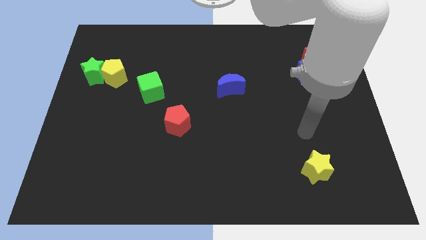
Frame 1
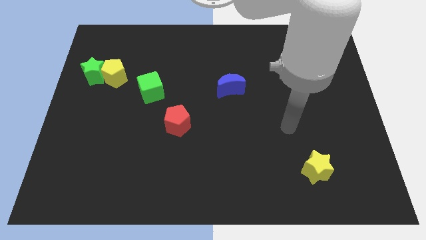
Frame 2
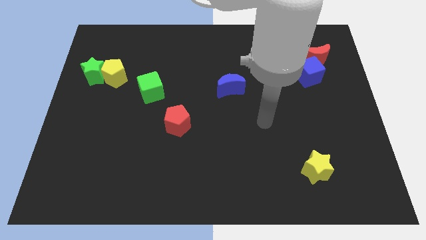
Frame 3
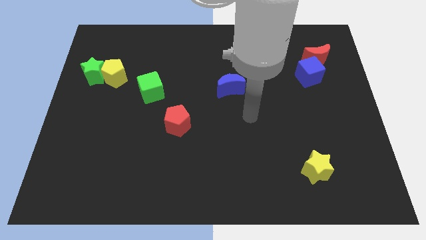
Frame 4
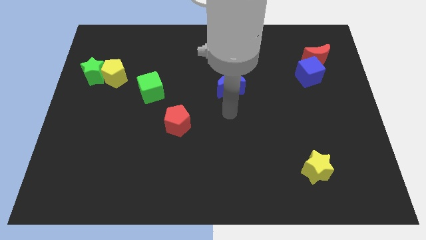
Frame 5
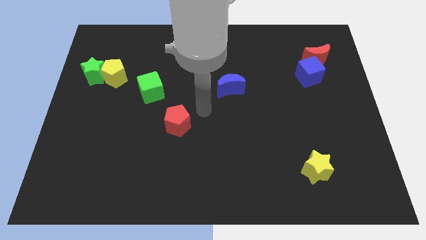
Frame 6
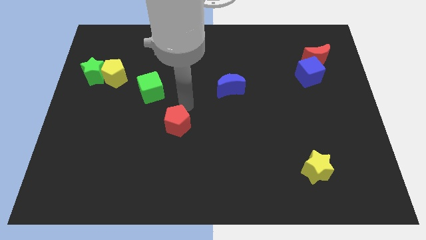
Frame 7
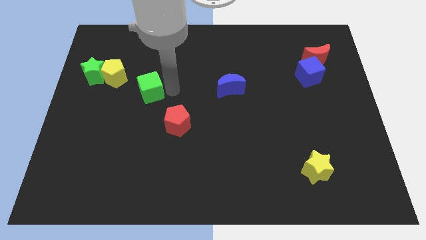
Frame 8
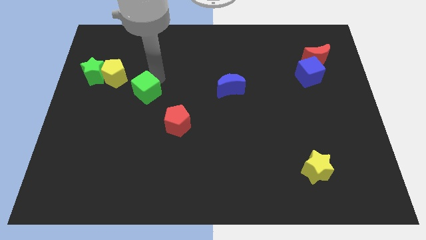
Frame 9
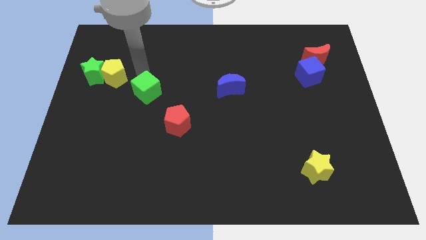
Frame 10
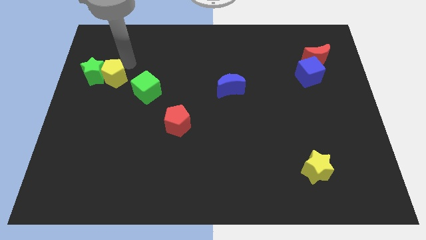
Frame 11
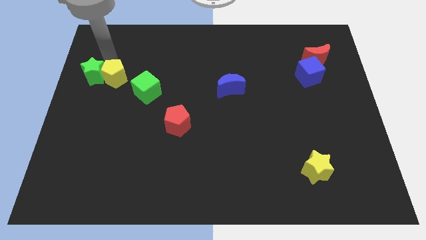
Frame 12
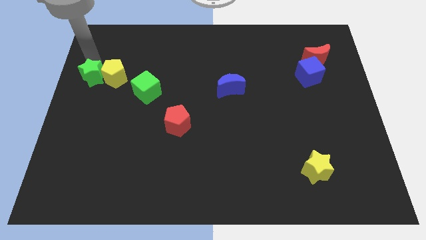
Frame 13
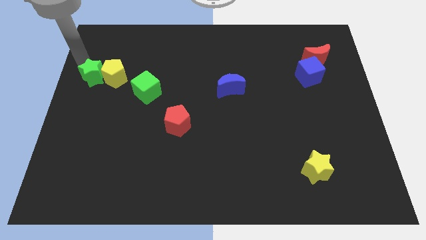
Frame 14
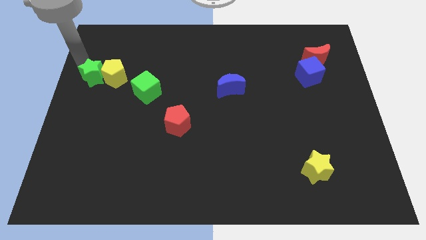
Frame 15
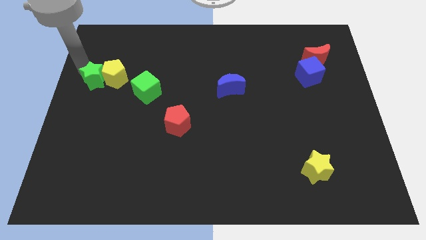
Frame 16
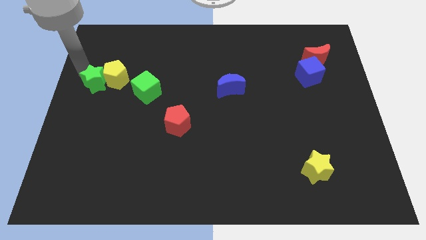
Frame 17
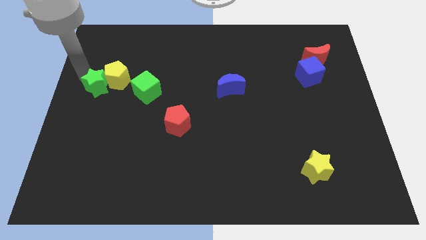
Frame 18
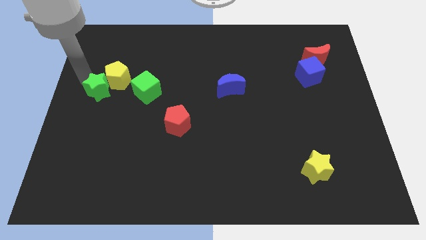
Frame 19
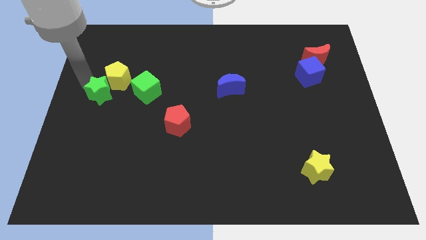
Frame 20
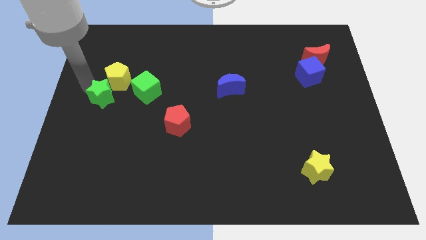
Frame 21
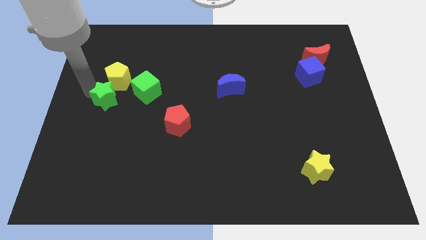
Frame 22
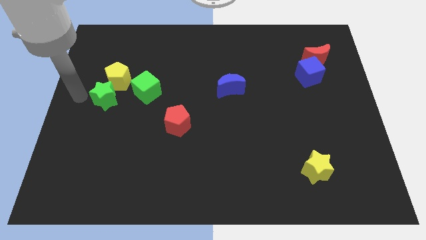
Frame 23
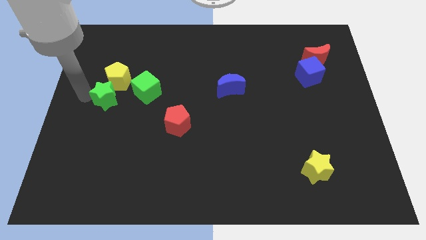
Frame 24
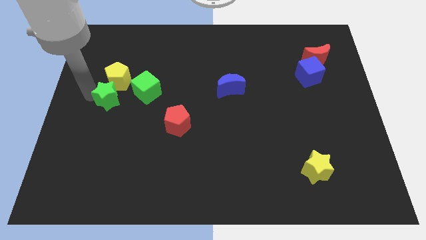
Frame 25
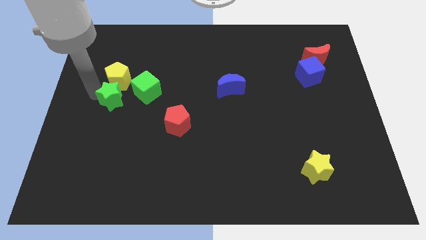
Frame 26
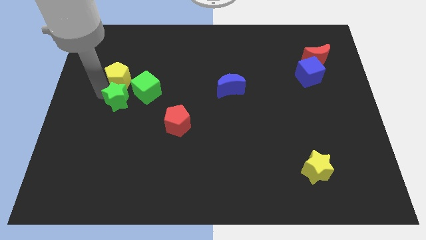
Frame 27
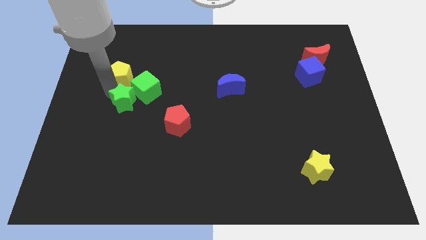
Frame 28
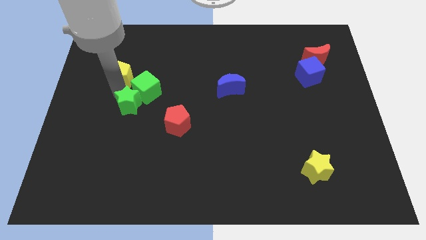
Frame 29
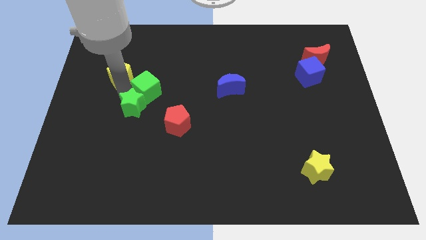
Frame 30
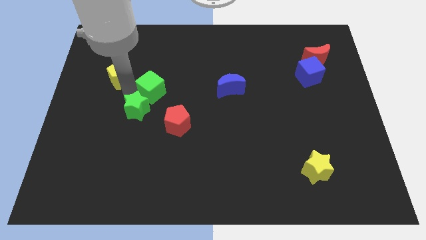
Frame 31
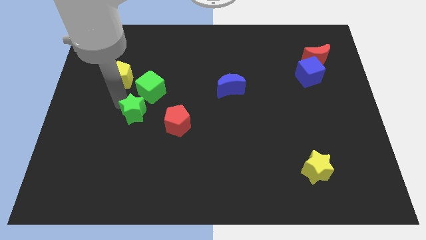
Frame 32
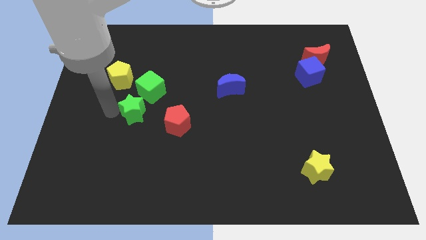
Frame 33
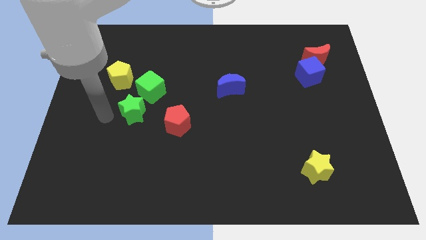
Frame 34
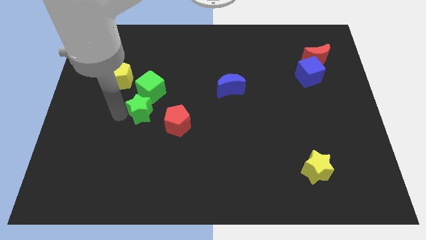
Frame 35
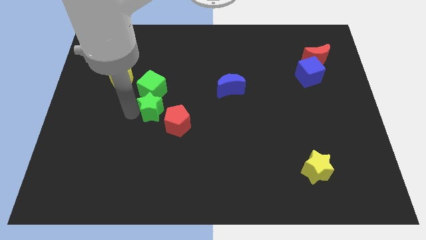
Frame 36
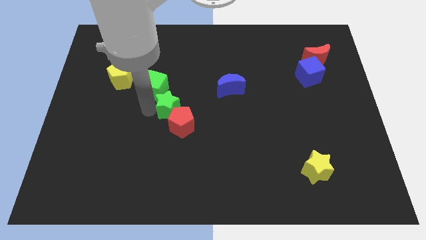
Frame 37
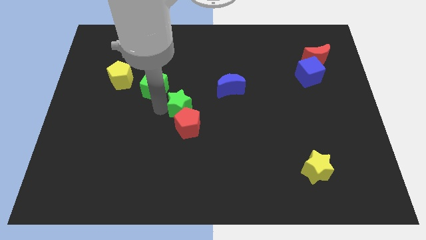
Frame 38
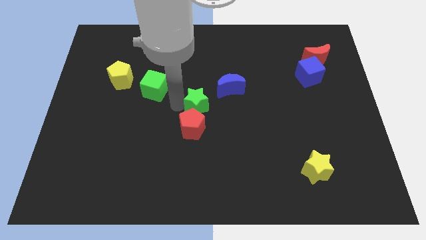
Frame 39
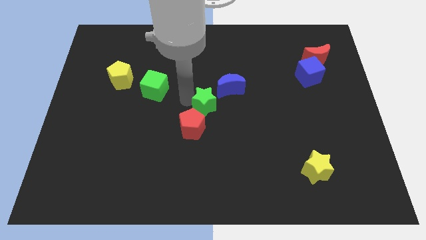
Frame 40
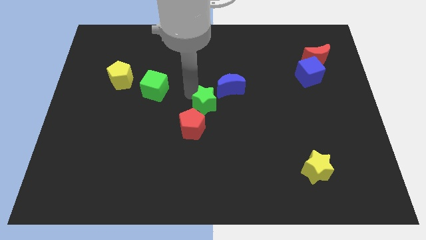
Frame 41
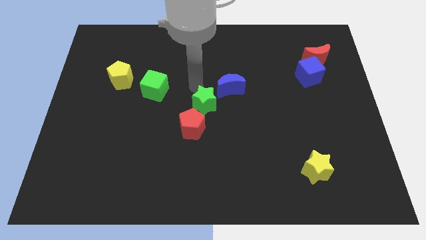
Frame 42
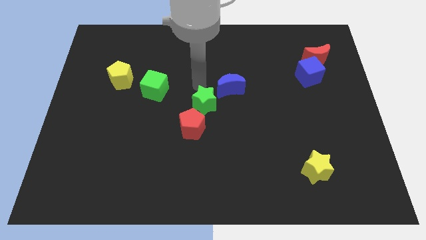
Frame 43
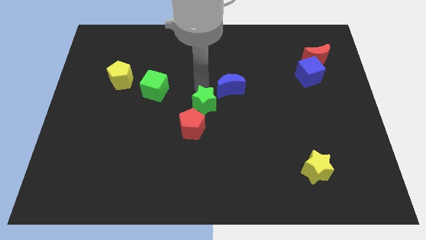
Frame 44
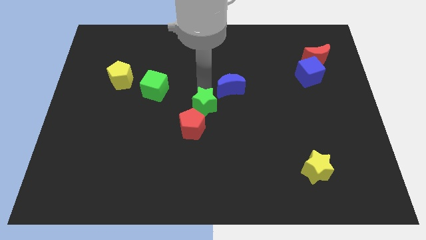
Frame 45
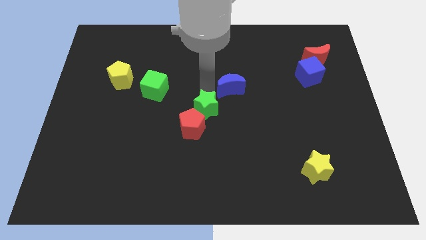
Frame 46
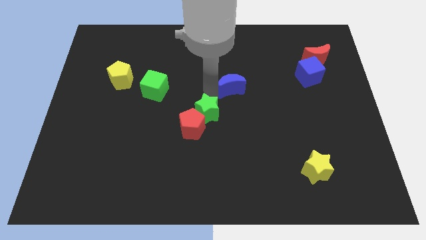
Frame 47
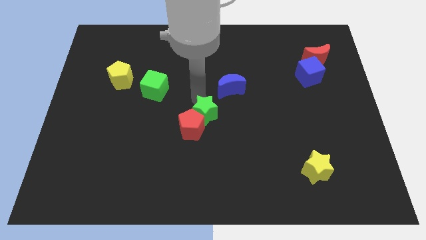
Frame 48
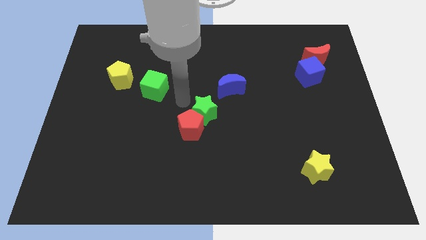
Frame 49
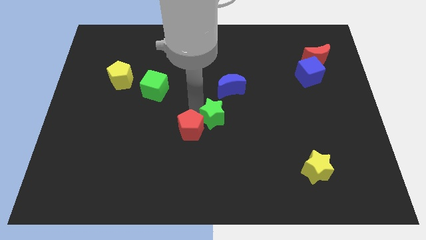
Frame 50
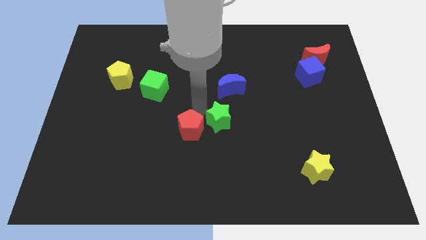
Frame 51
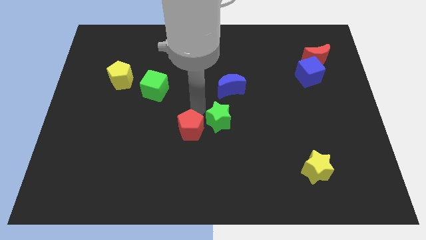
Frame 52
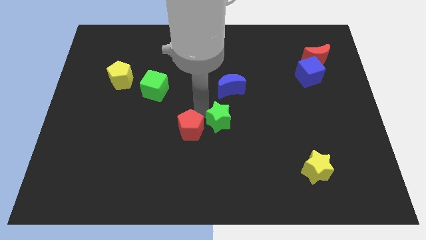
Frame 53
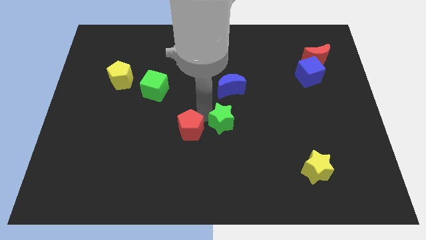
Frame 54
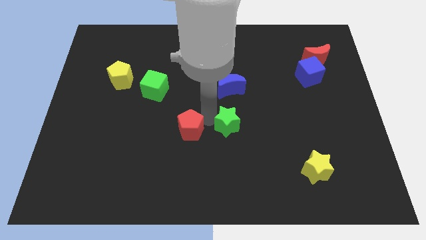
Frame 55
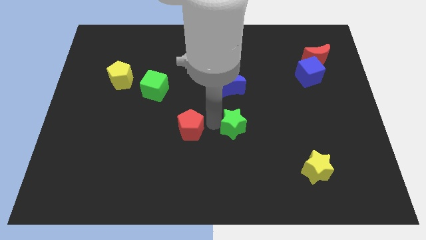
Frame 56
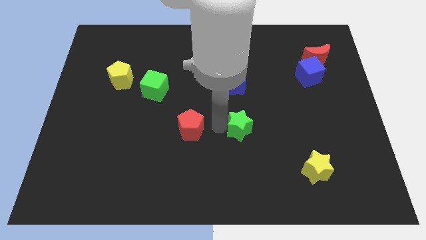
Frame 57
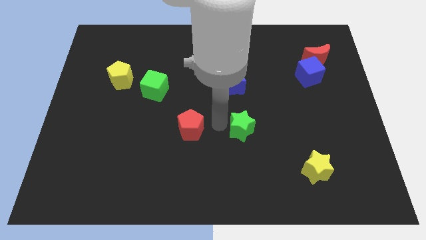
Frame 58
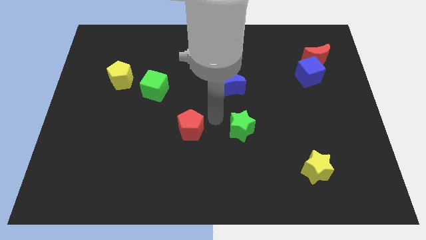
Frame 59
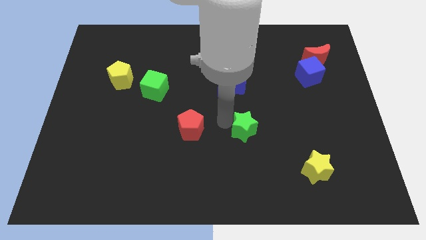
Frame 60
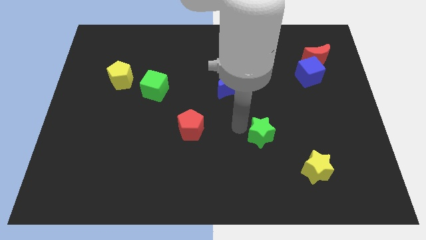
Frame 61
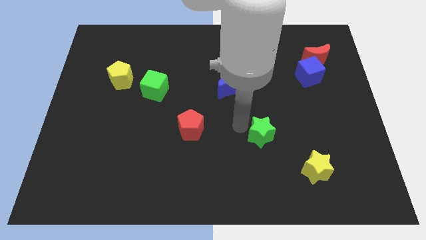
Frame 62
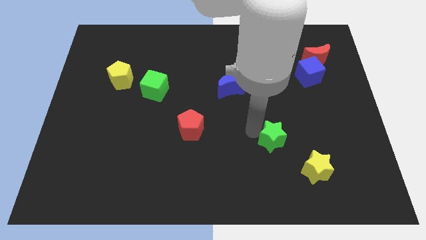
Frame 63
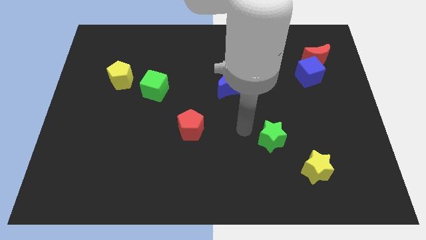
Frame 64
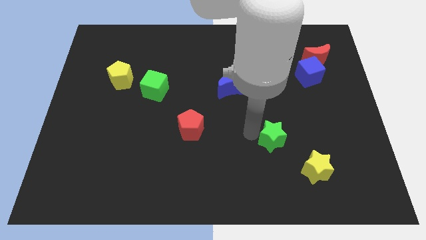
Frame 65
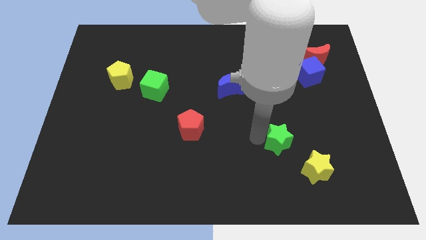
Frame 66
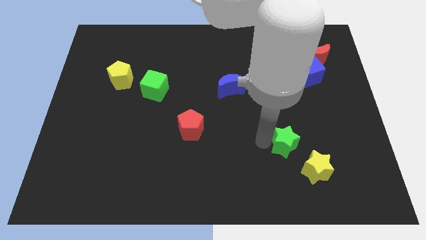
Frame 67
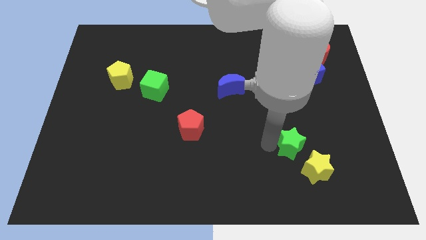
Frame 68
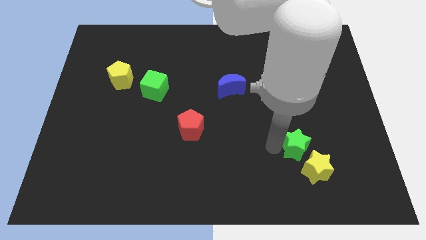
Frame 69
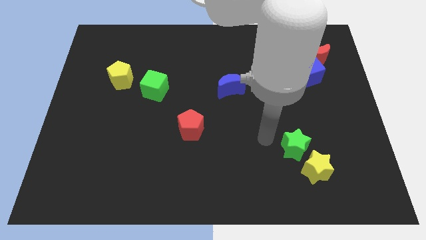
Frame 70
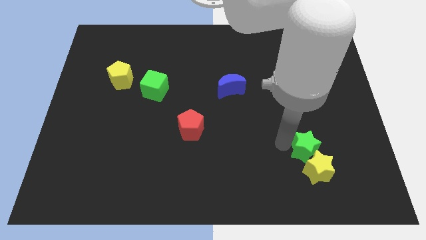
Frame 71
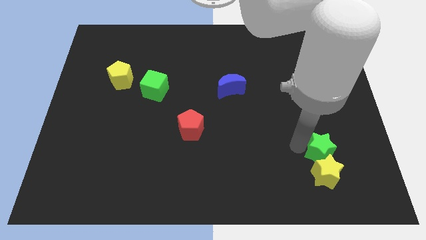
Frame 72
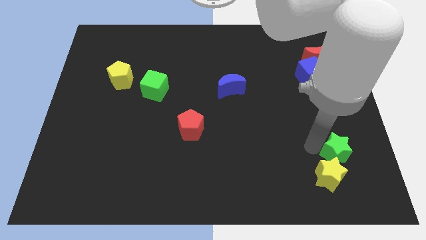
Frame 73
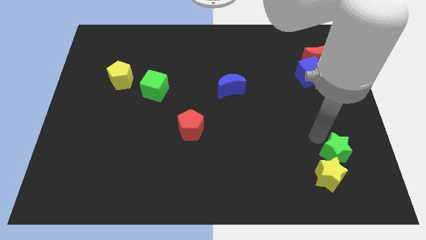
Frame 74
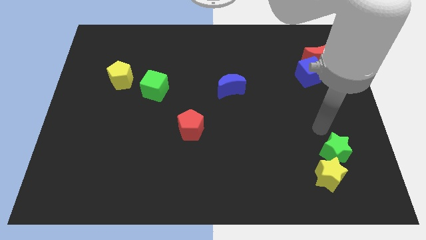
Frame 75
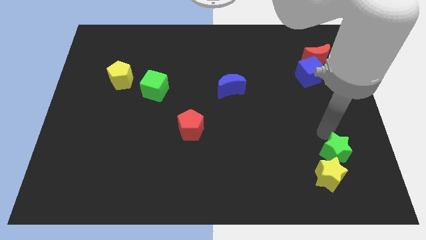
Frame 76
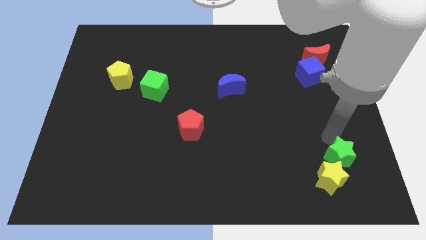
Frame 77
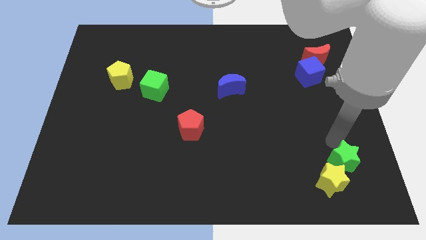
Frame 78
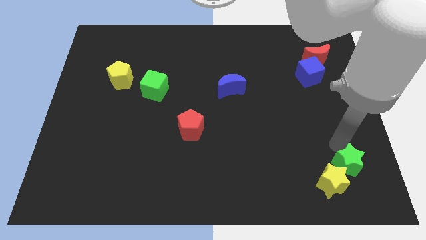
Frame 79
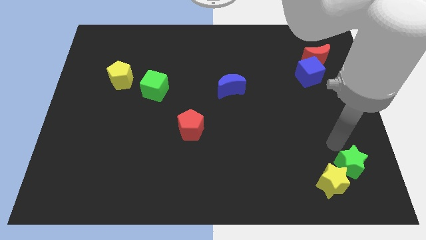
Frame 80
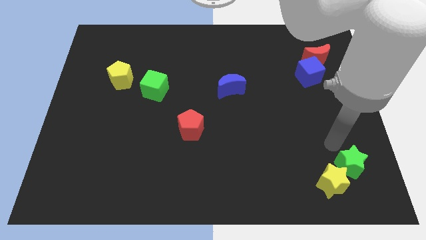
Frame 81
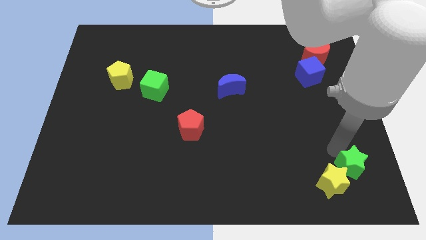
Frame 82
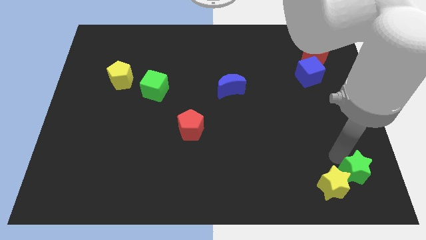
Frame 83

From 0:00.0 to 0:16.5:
put the green star to the lower right corner
